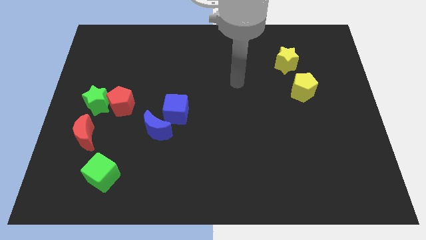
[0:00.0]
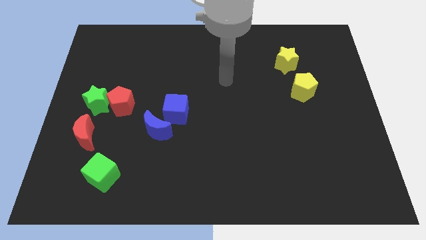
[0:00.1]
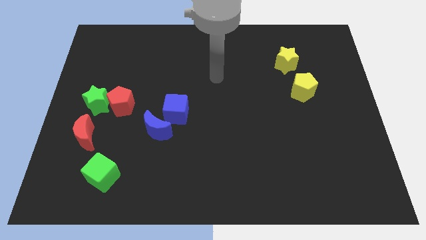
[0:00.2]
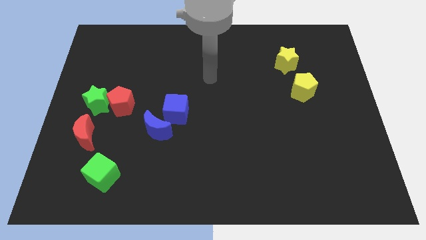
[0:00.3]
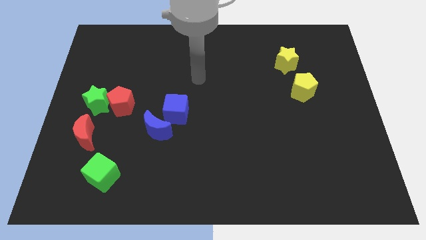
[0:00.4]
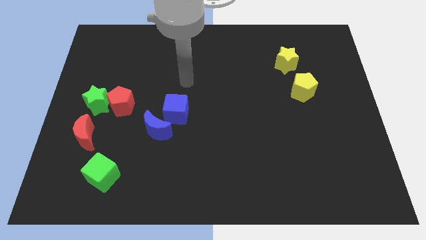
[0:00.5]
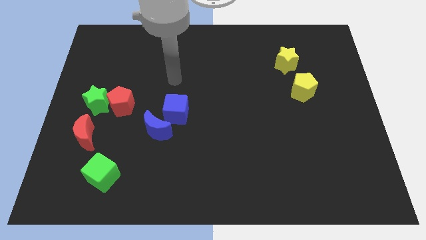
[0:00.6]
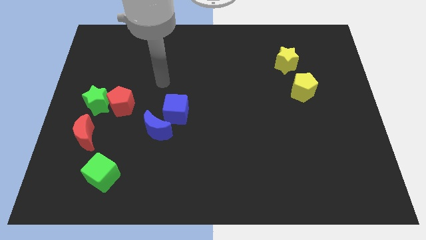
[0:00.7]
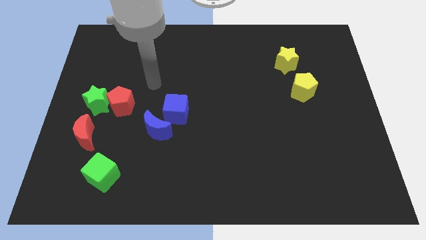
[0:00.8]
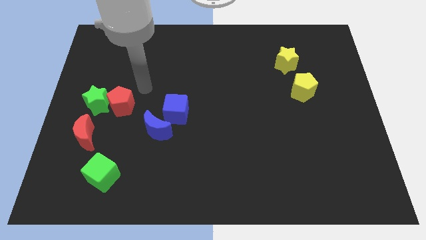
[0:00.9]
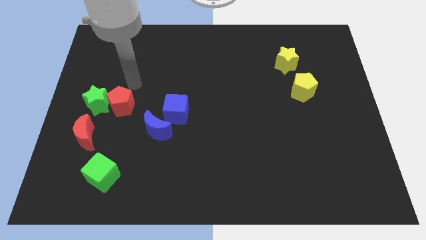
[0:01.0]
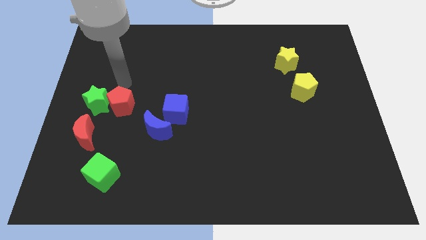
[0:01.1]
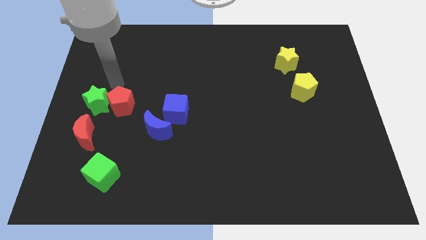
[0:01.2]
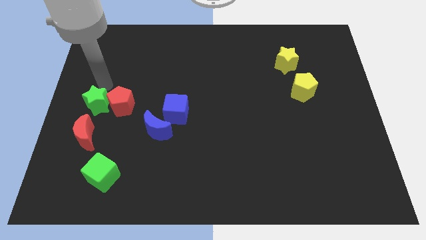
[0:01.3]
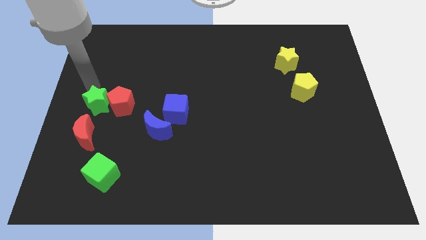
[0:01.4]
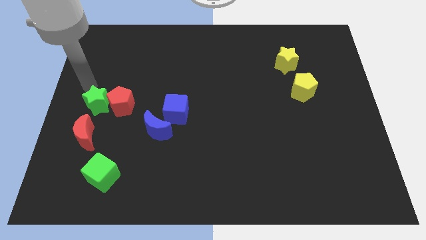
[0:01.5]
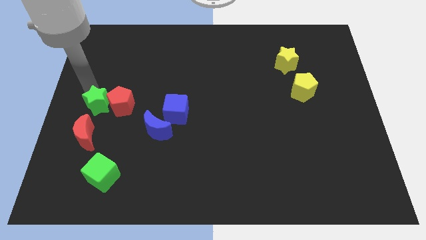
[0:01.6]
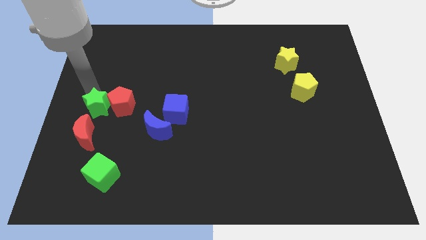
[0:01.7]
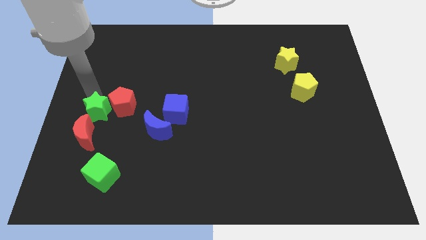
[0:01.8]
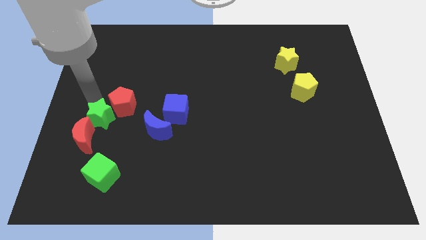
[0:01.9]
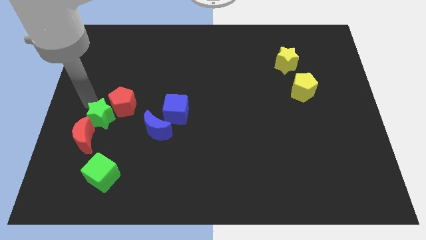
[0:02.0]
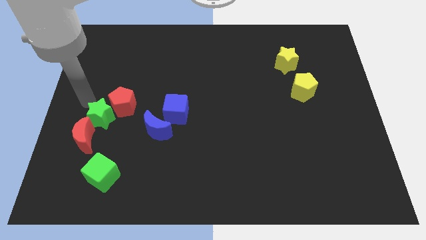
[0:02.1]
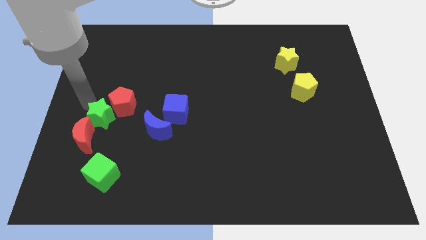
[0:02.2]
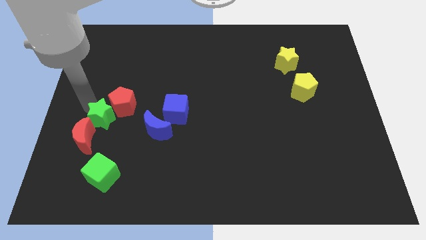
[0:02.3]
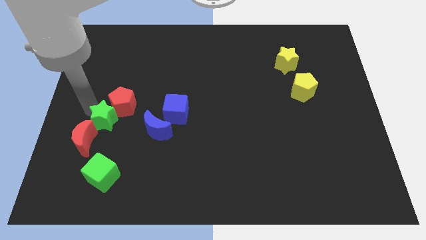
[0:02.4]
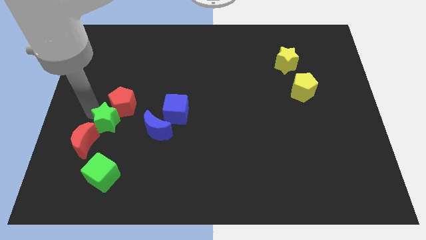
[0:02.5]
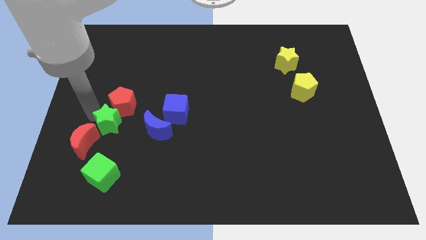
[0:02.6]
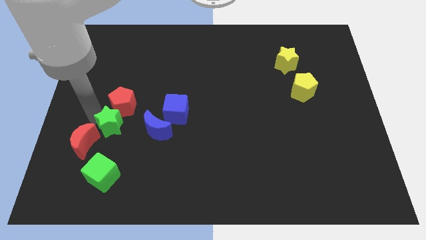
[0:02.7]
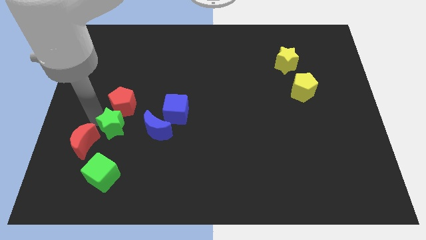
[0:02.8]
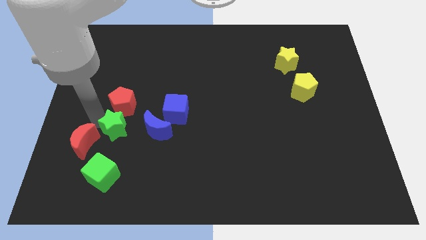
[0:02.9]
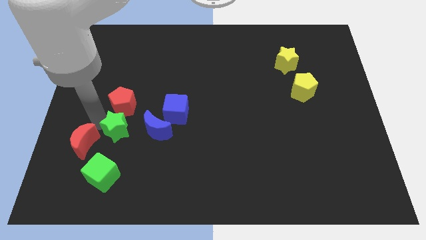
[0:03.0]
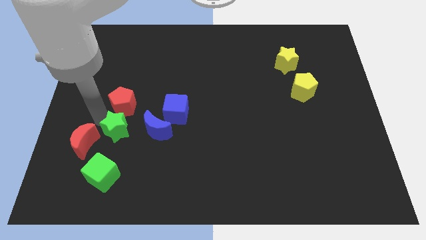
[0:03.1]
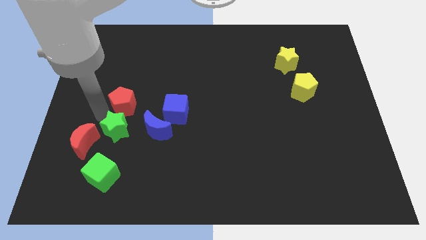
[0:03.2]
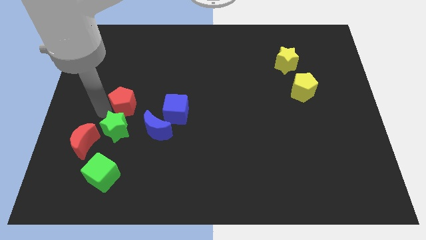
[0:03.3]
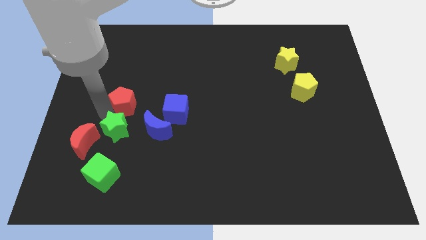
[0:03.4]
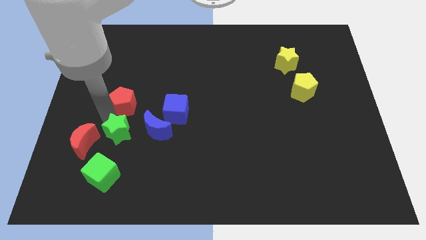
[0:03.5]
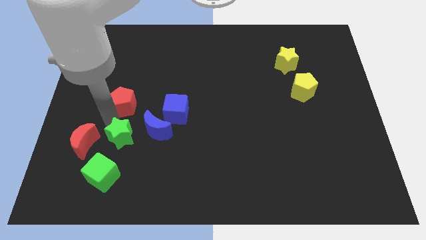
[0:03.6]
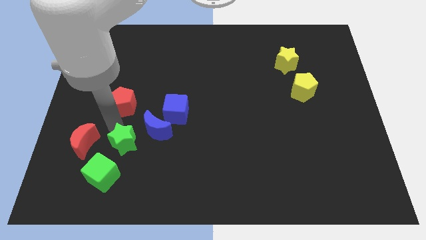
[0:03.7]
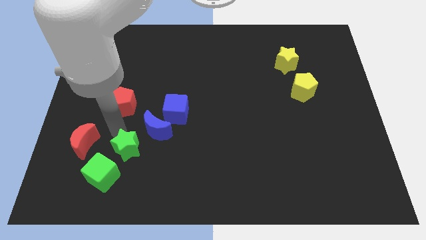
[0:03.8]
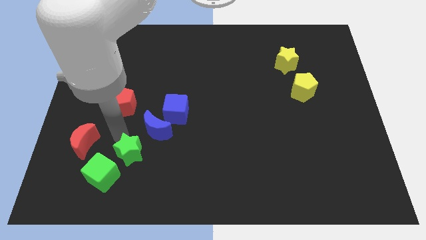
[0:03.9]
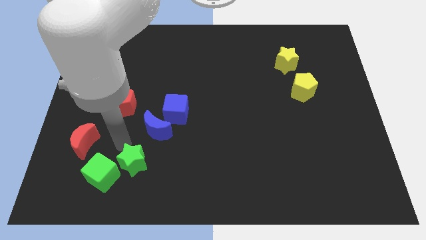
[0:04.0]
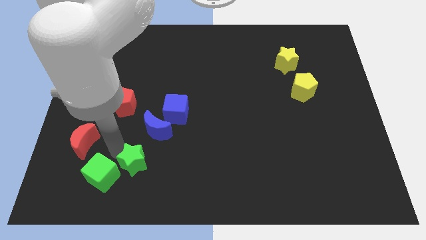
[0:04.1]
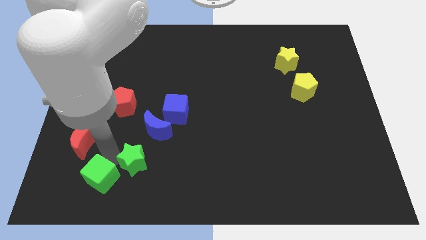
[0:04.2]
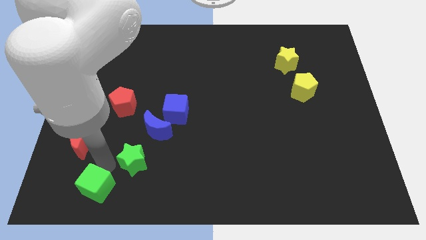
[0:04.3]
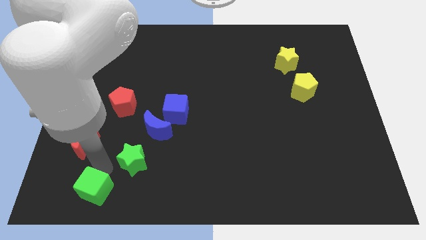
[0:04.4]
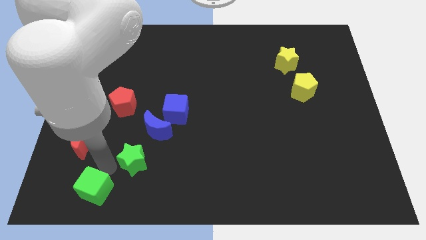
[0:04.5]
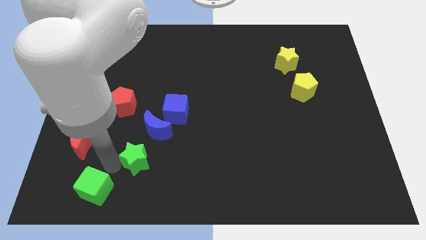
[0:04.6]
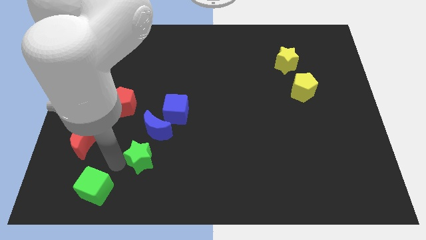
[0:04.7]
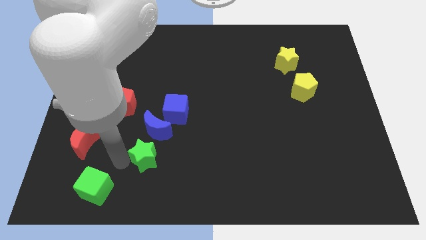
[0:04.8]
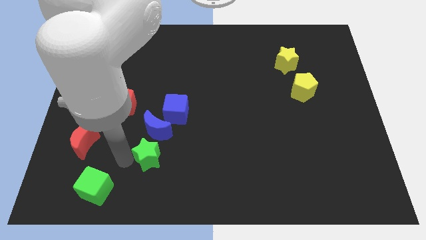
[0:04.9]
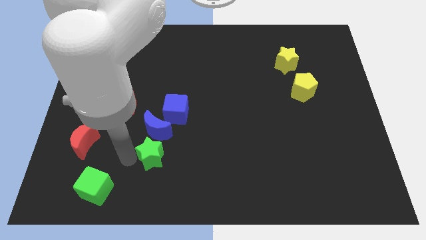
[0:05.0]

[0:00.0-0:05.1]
move the green star to the bottom right of the blue moon

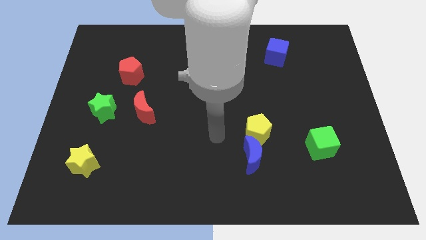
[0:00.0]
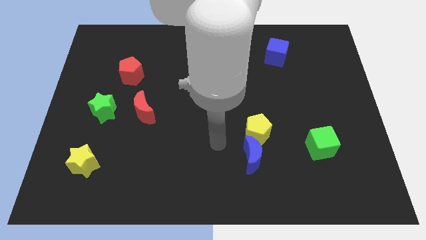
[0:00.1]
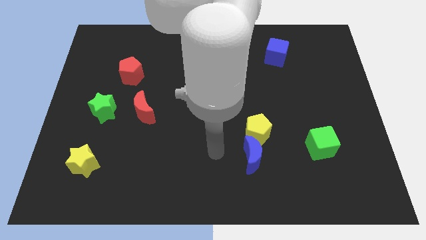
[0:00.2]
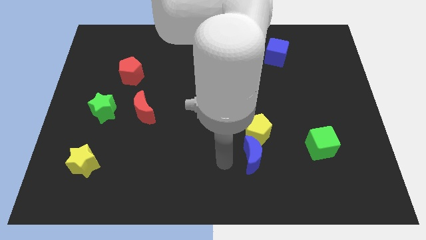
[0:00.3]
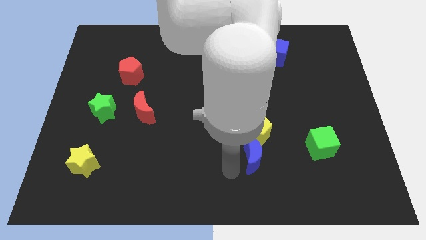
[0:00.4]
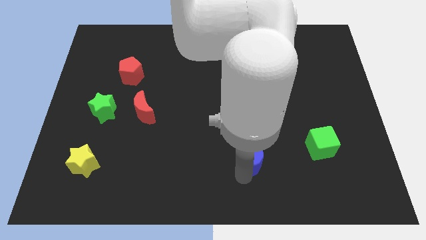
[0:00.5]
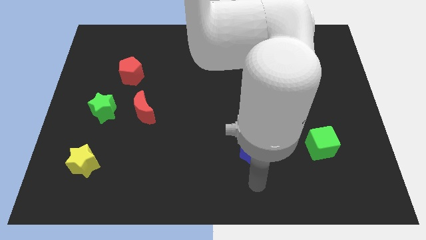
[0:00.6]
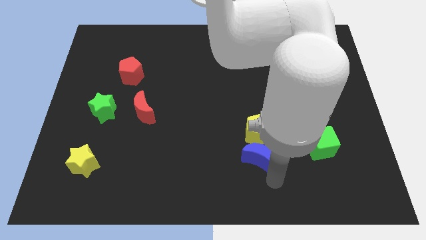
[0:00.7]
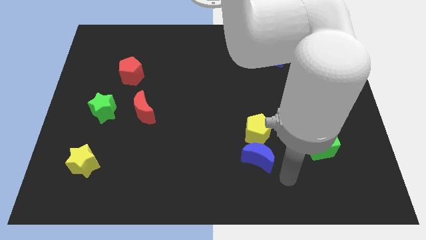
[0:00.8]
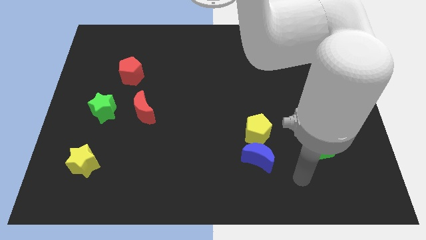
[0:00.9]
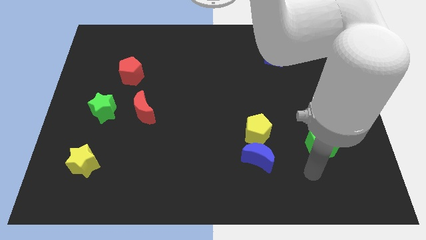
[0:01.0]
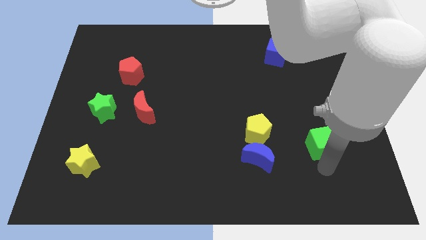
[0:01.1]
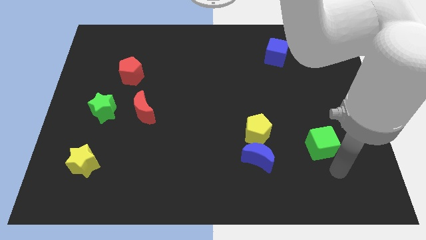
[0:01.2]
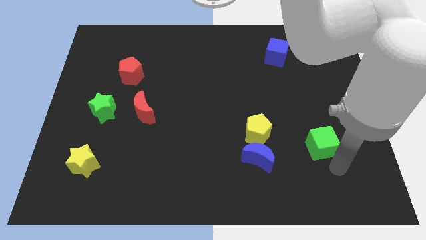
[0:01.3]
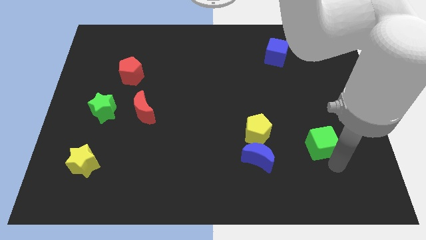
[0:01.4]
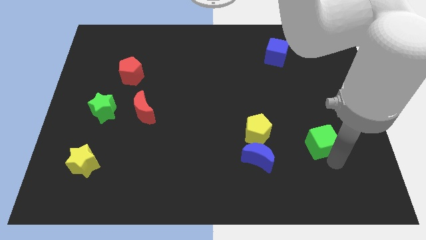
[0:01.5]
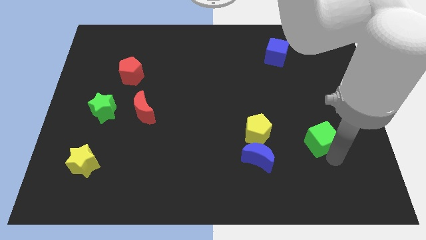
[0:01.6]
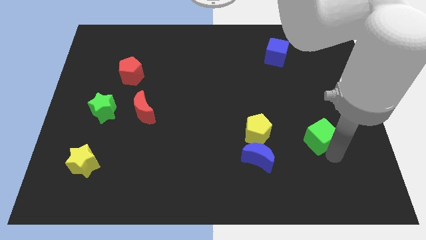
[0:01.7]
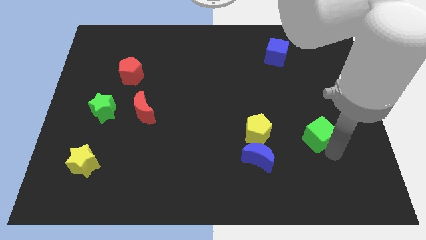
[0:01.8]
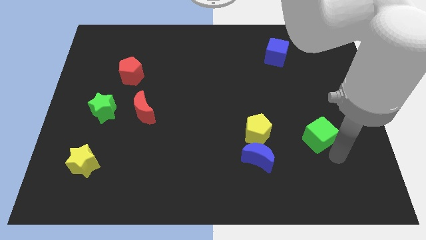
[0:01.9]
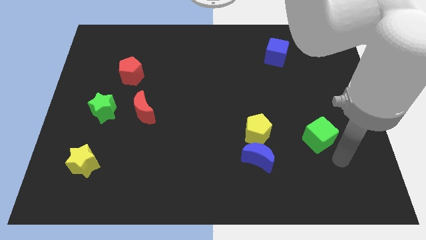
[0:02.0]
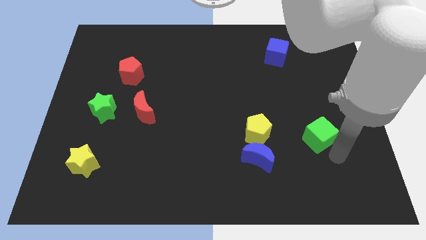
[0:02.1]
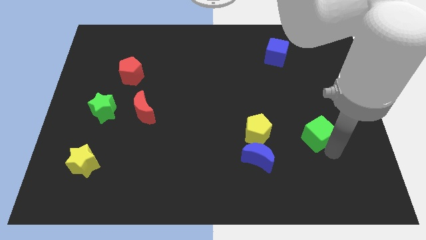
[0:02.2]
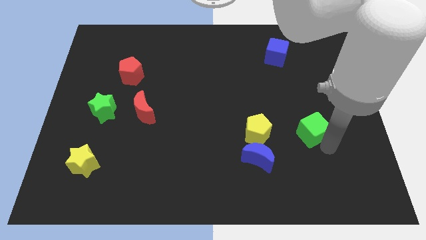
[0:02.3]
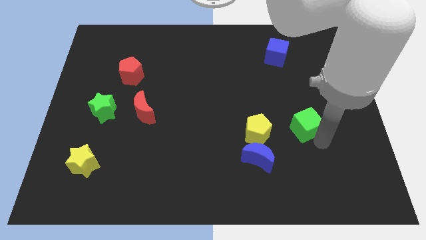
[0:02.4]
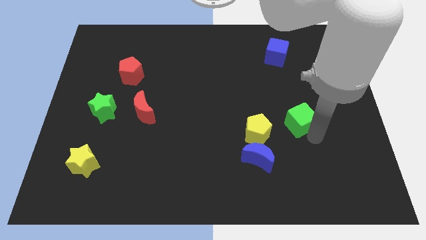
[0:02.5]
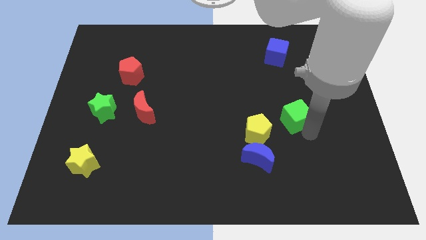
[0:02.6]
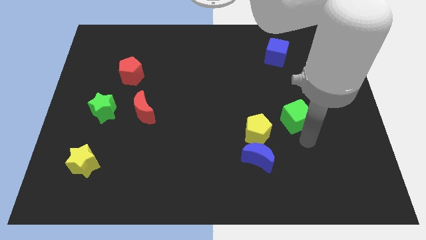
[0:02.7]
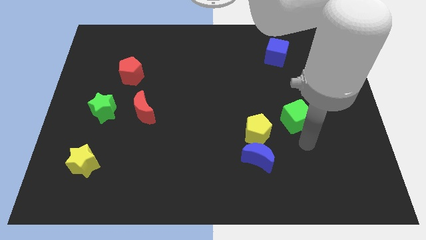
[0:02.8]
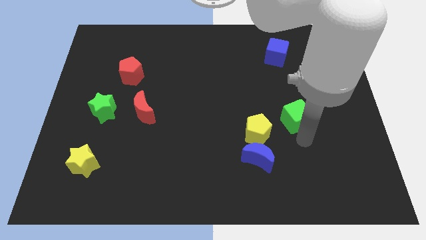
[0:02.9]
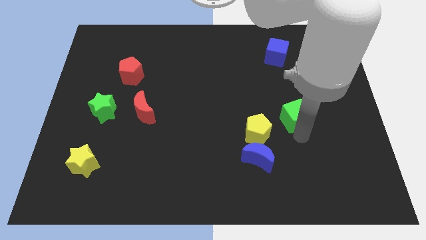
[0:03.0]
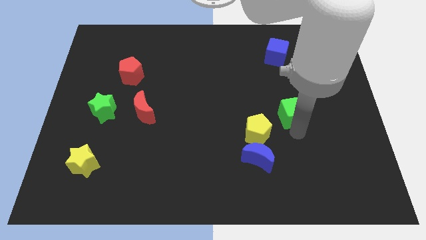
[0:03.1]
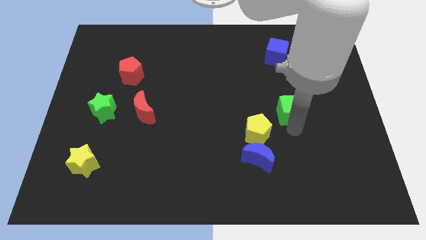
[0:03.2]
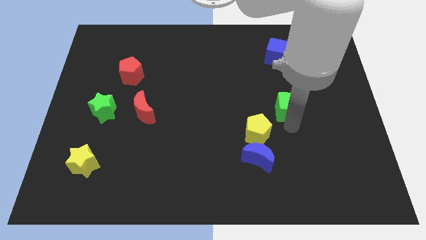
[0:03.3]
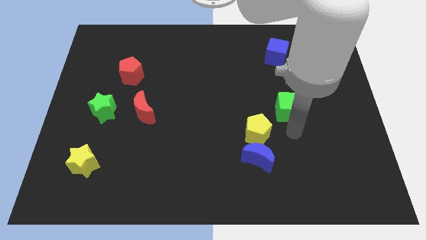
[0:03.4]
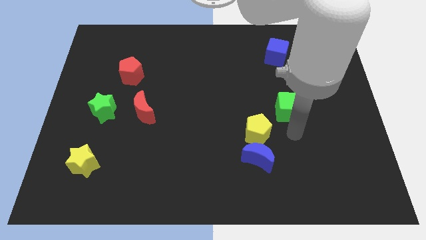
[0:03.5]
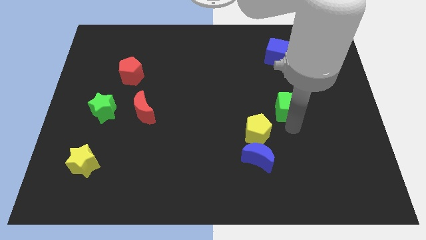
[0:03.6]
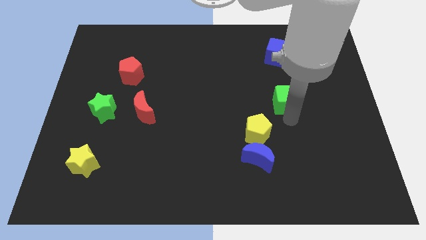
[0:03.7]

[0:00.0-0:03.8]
push the green cube to the bottom side of the blue cube
